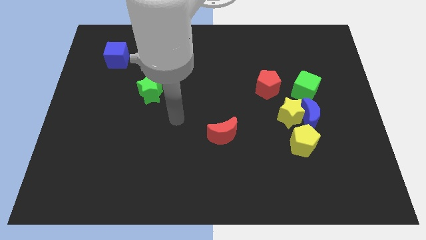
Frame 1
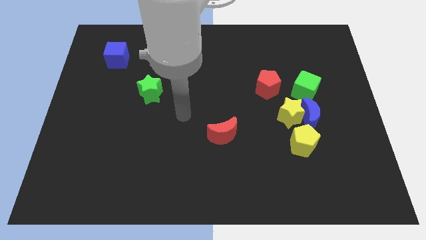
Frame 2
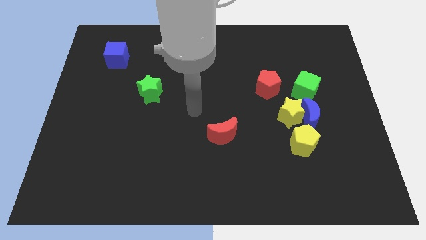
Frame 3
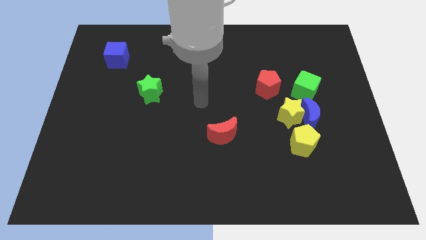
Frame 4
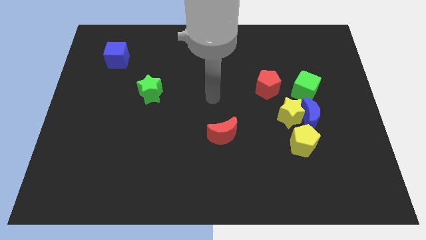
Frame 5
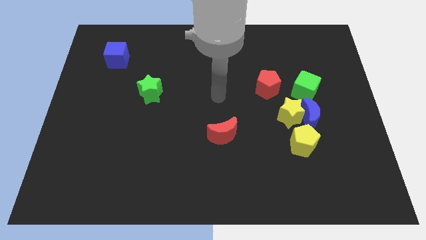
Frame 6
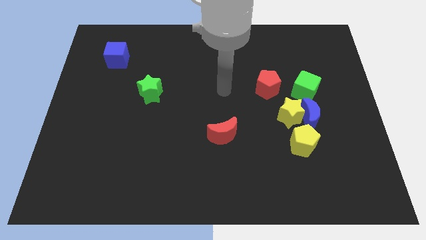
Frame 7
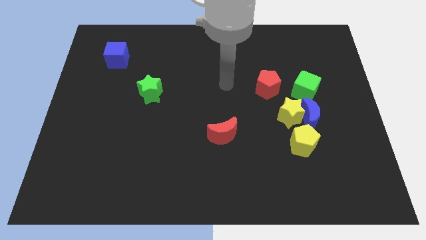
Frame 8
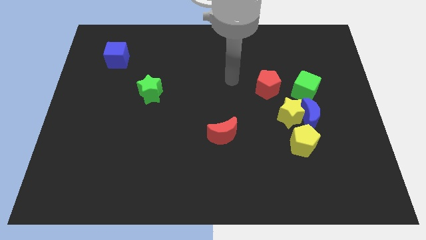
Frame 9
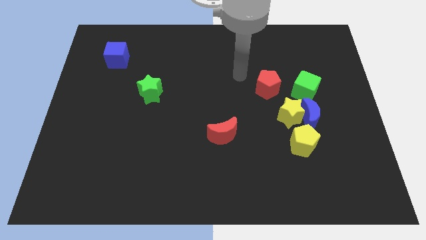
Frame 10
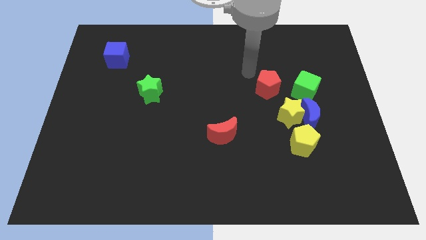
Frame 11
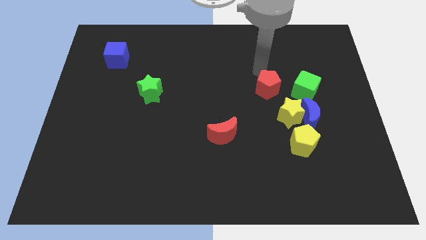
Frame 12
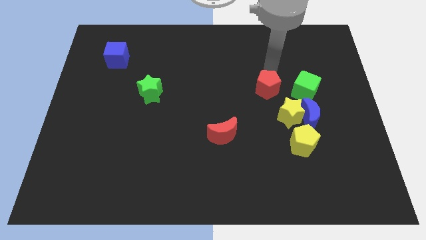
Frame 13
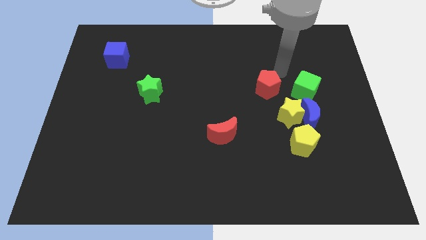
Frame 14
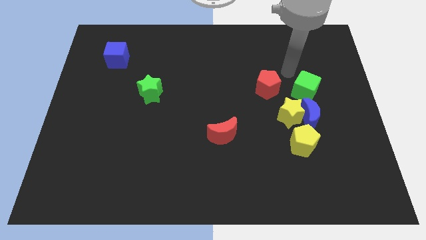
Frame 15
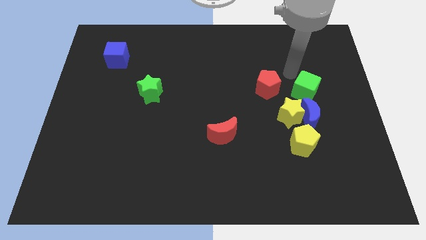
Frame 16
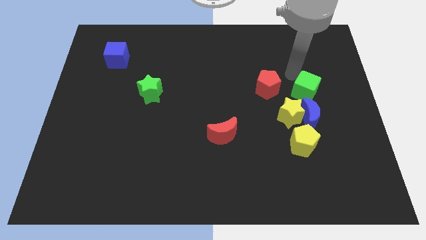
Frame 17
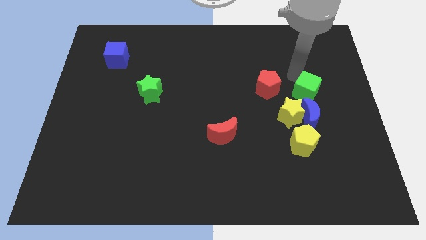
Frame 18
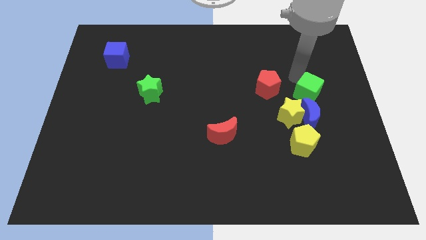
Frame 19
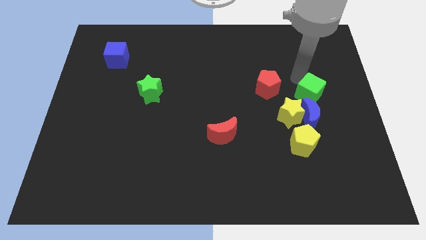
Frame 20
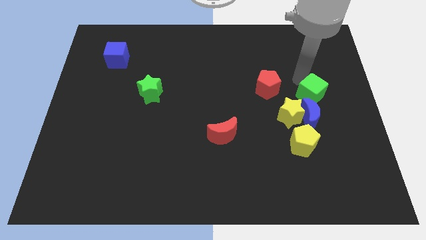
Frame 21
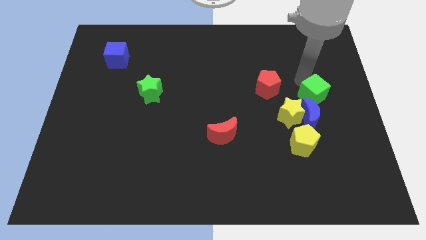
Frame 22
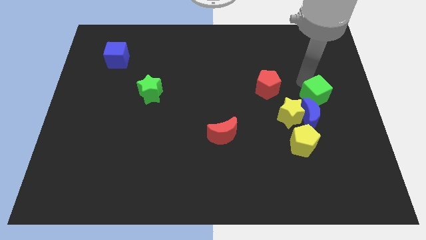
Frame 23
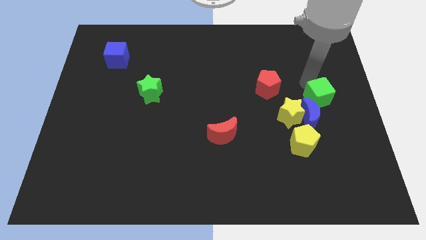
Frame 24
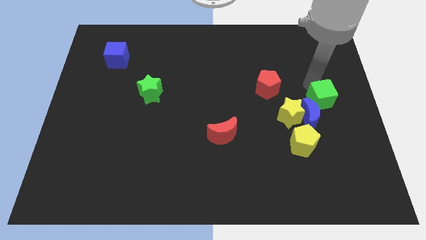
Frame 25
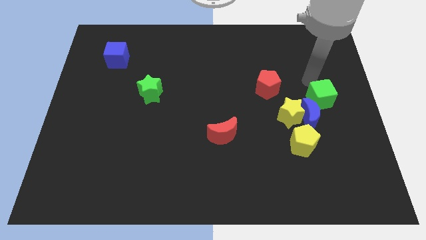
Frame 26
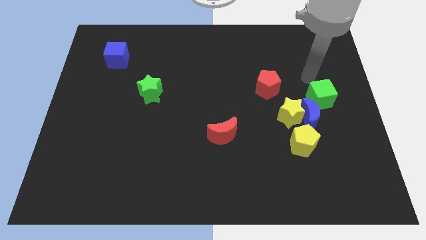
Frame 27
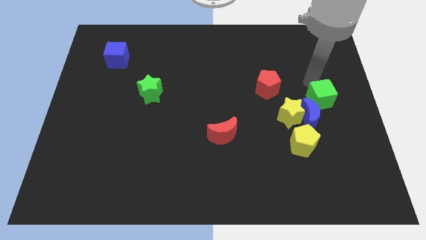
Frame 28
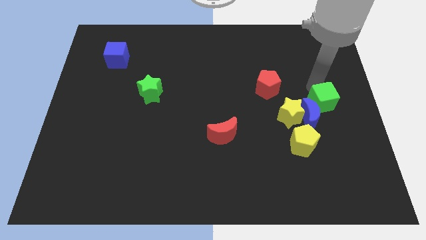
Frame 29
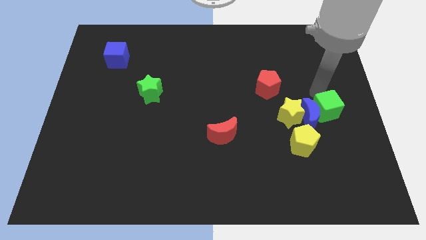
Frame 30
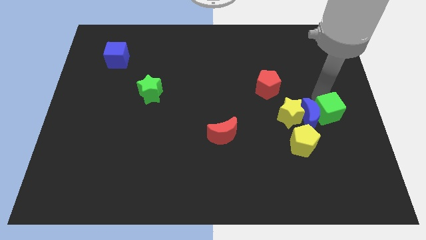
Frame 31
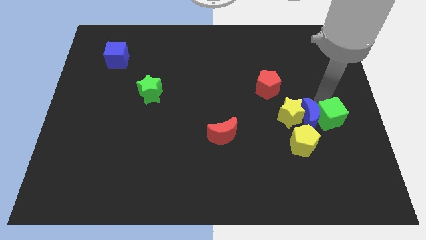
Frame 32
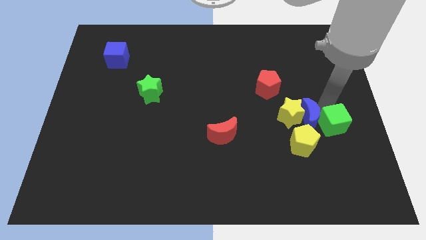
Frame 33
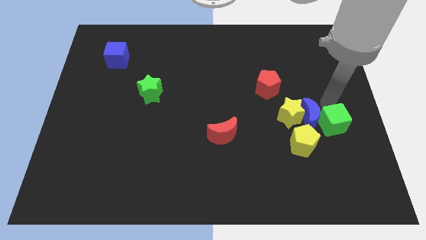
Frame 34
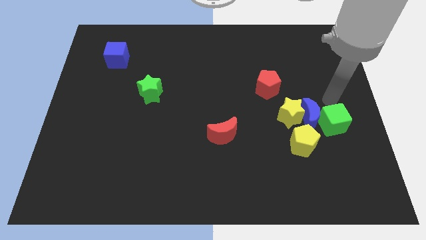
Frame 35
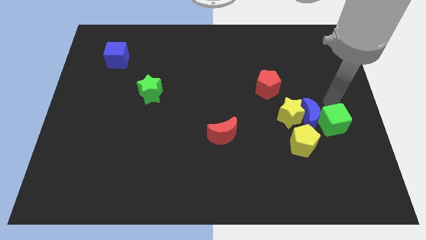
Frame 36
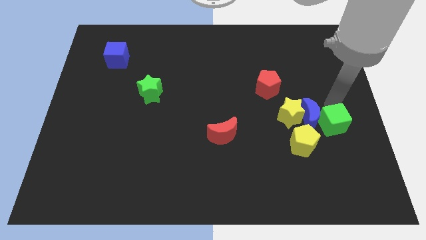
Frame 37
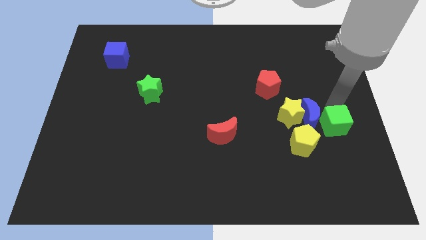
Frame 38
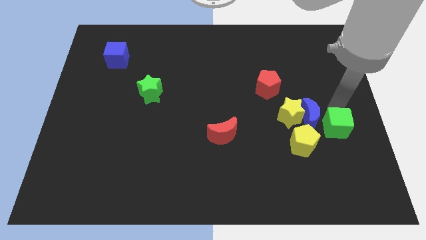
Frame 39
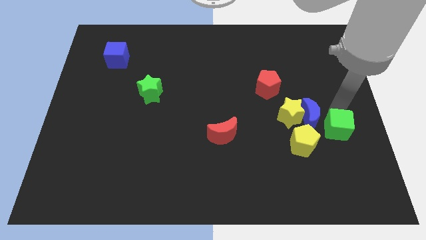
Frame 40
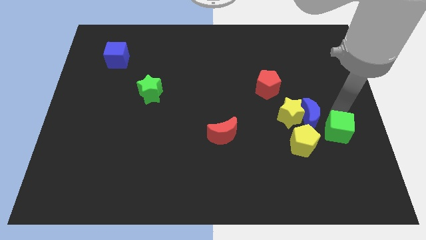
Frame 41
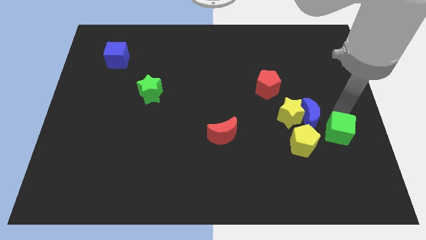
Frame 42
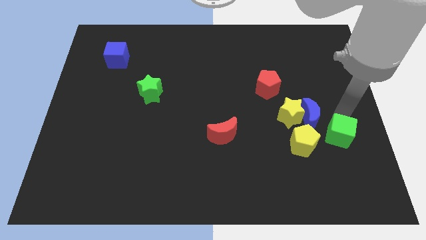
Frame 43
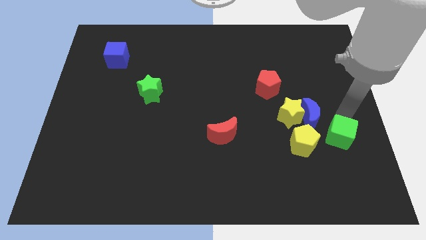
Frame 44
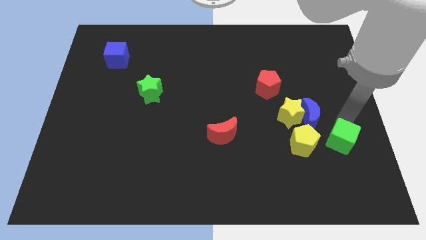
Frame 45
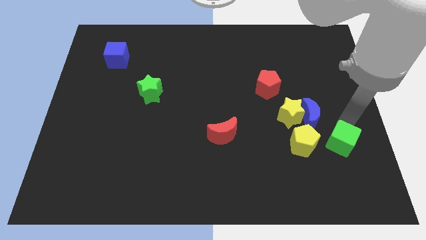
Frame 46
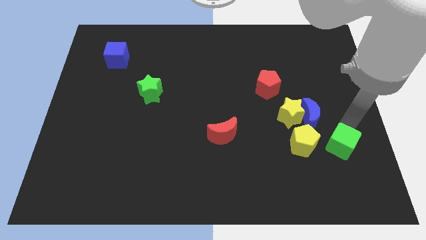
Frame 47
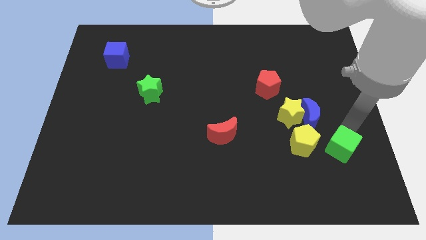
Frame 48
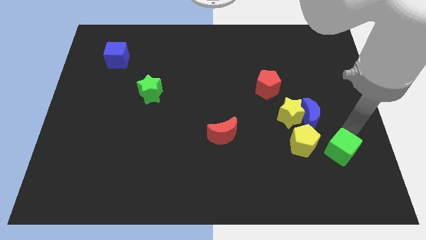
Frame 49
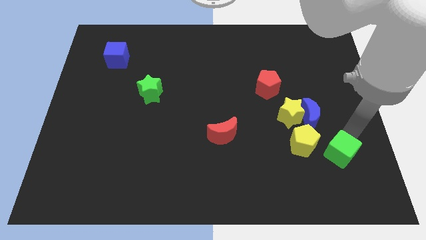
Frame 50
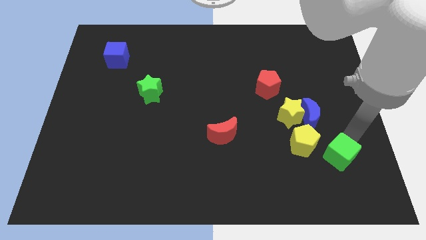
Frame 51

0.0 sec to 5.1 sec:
slide the green cube to the bottom of the blue moon

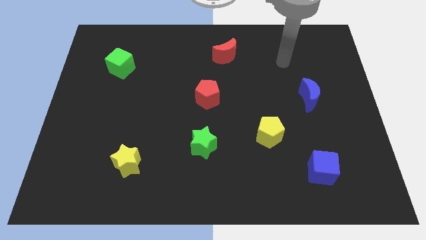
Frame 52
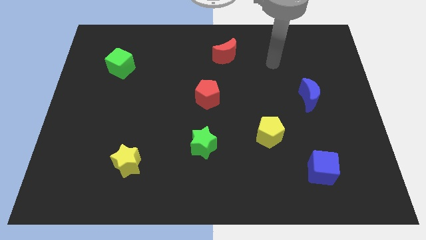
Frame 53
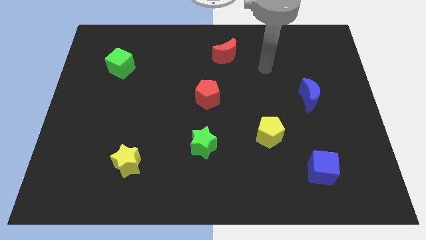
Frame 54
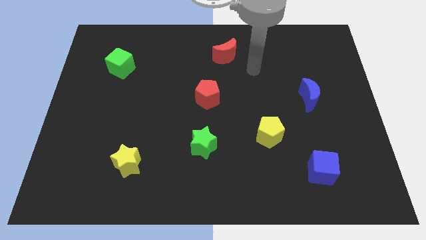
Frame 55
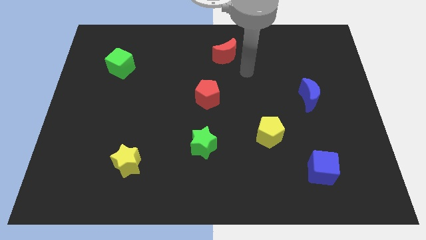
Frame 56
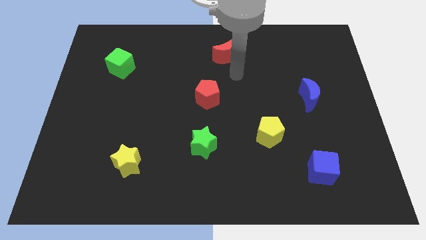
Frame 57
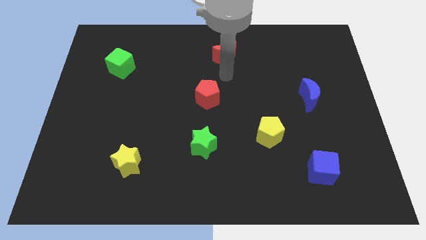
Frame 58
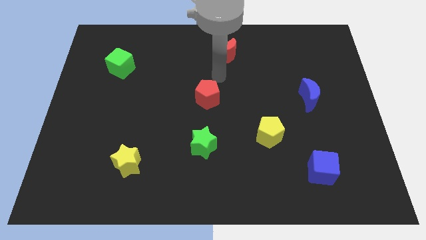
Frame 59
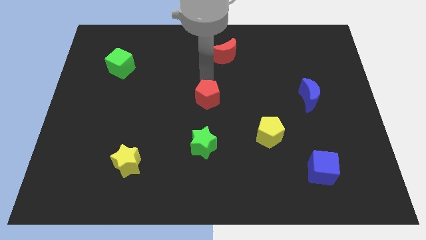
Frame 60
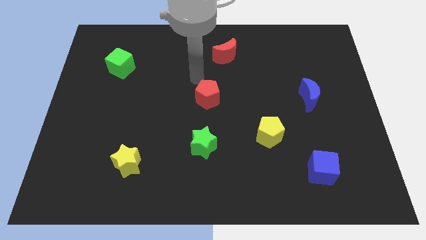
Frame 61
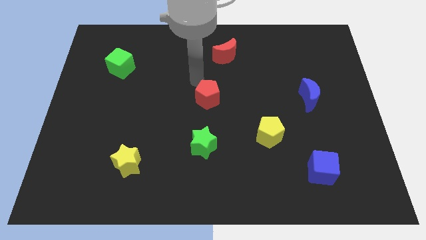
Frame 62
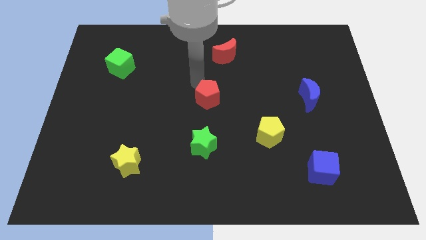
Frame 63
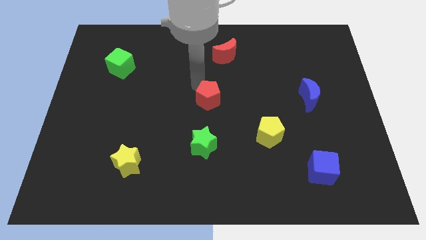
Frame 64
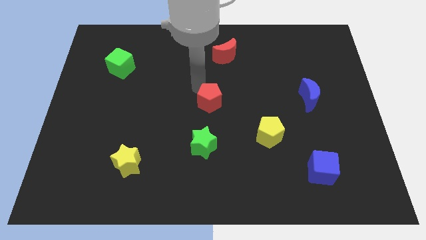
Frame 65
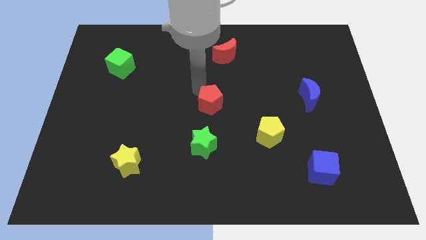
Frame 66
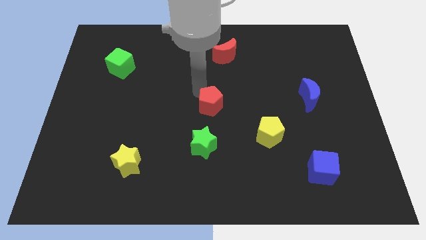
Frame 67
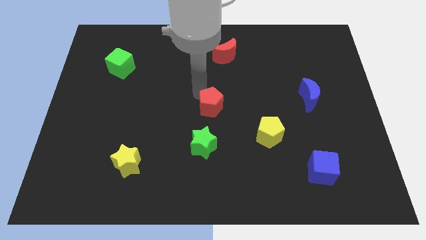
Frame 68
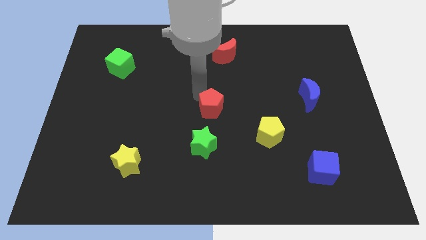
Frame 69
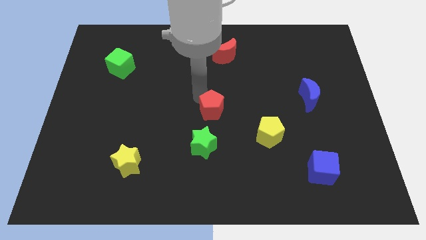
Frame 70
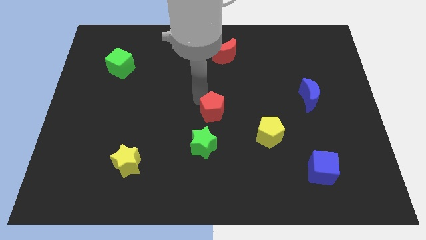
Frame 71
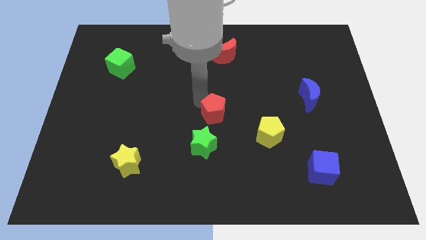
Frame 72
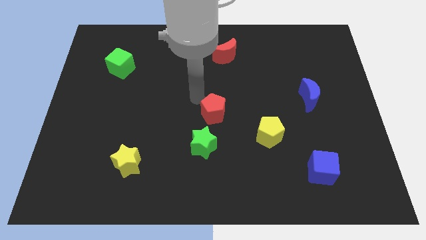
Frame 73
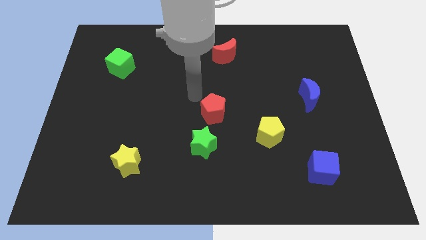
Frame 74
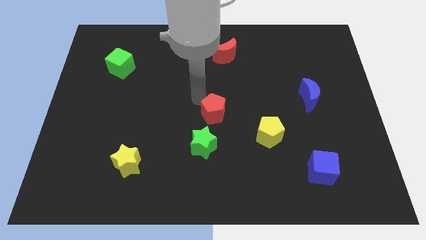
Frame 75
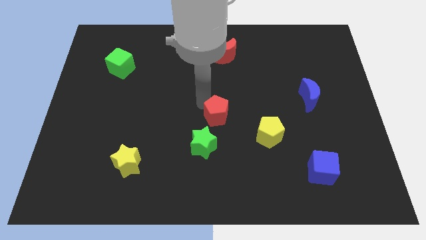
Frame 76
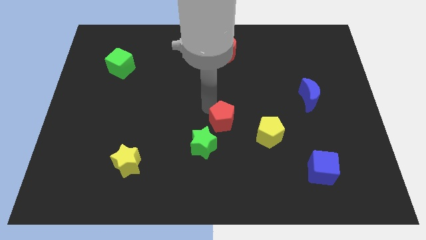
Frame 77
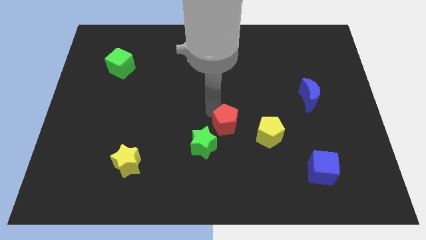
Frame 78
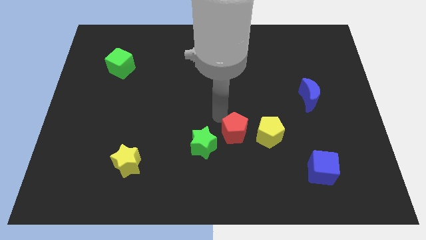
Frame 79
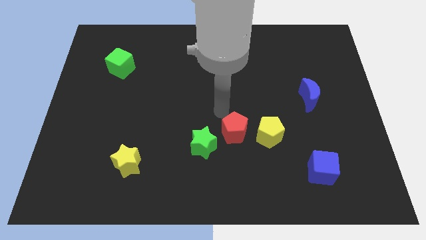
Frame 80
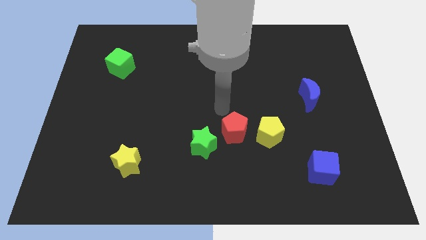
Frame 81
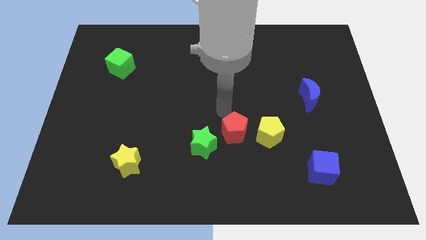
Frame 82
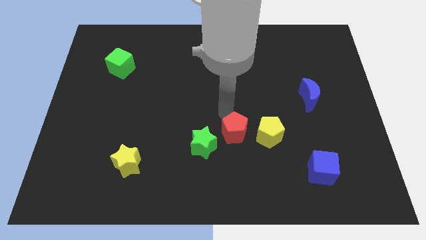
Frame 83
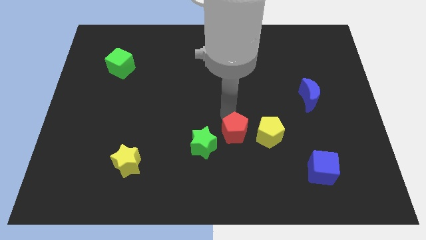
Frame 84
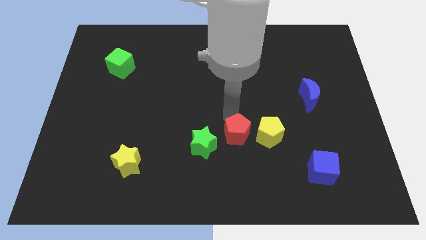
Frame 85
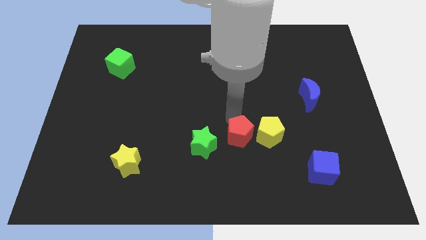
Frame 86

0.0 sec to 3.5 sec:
move the red pentagon to the bottom left of the yellow pentagon
